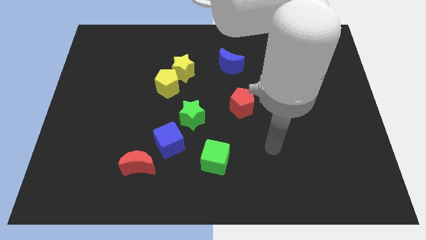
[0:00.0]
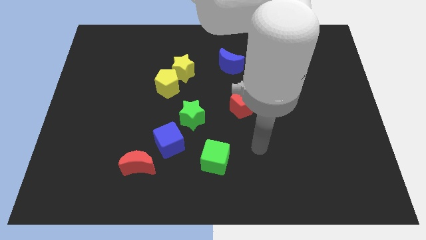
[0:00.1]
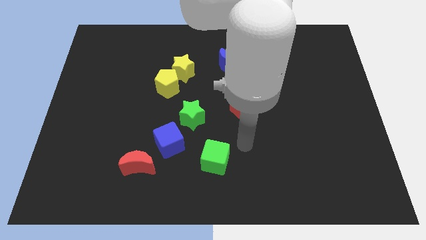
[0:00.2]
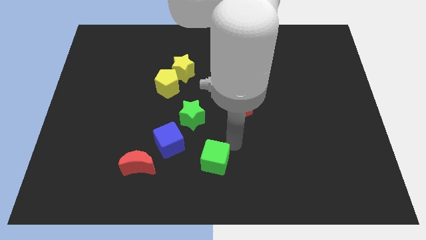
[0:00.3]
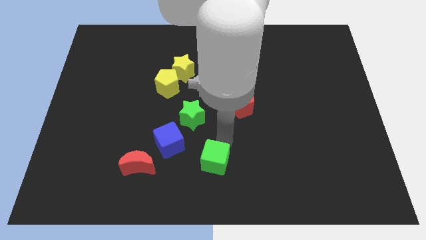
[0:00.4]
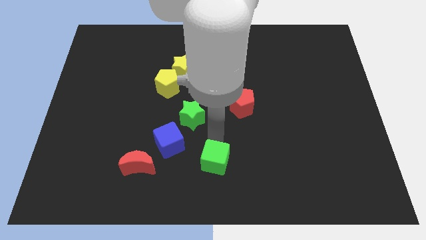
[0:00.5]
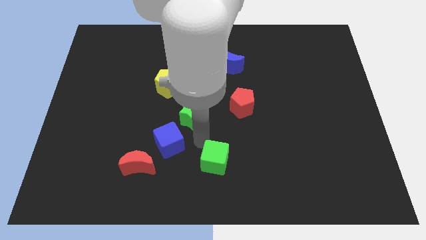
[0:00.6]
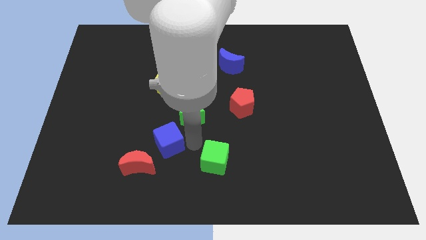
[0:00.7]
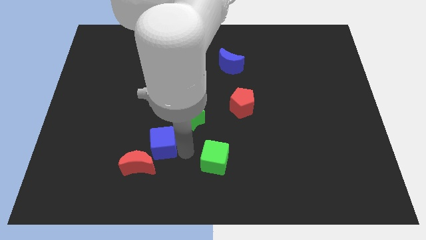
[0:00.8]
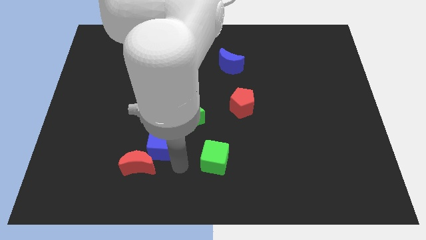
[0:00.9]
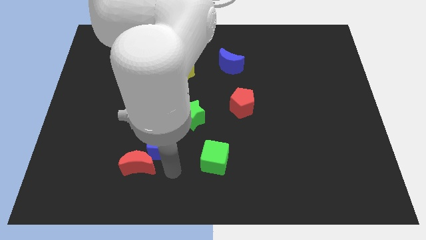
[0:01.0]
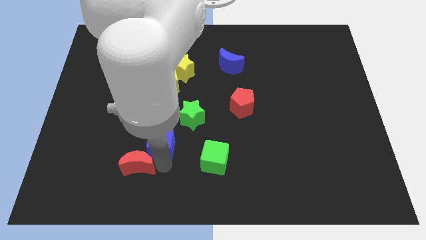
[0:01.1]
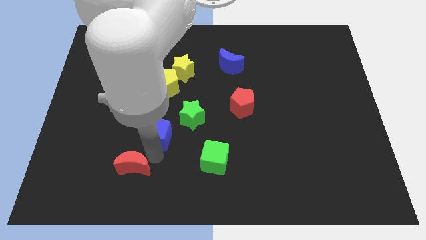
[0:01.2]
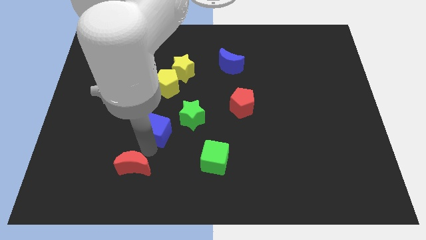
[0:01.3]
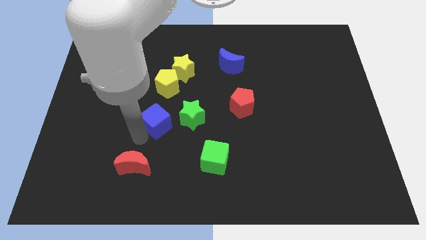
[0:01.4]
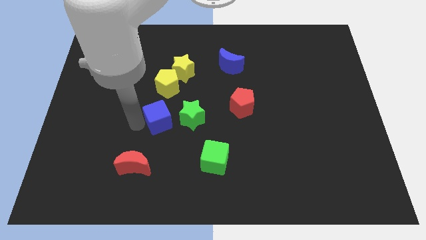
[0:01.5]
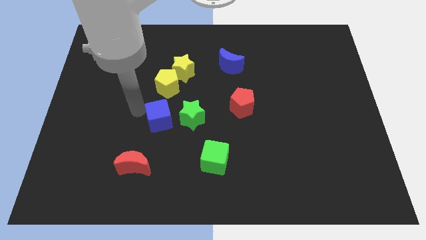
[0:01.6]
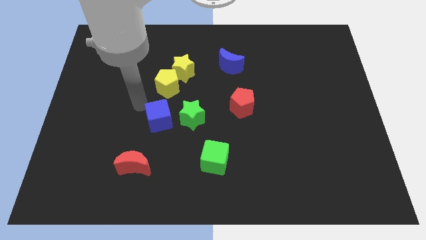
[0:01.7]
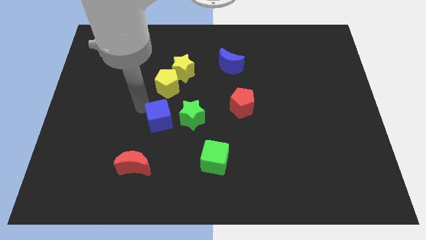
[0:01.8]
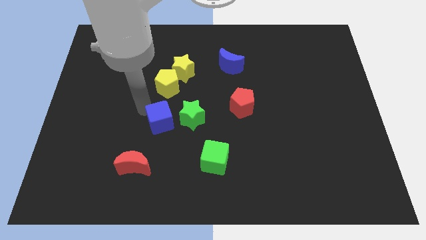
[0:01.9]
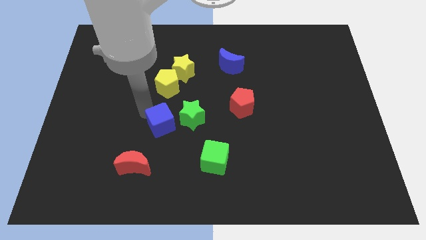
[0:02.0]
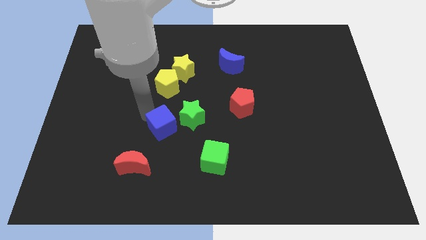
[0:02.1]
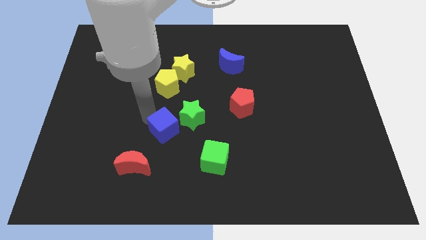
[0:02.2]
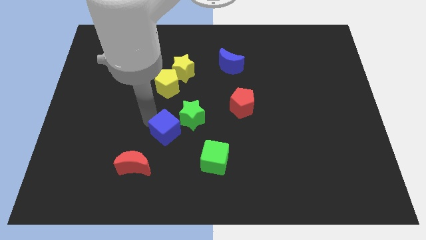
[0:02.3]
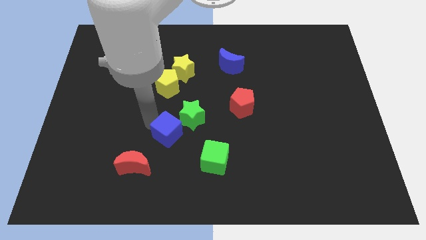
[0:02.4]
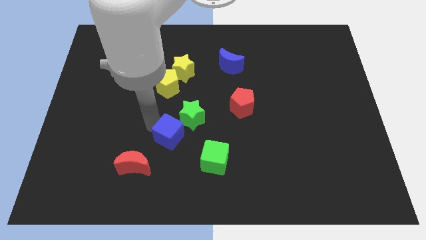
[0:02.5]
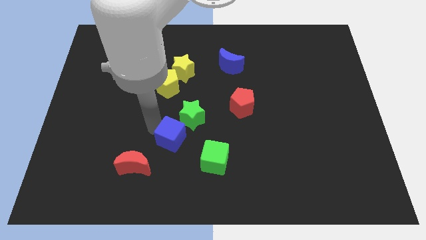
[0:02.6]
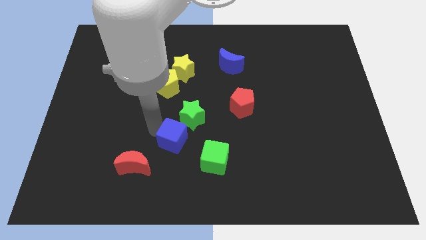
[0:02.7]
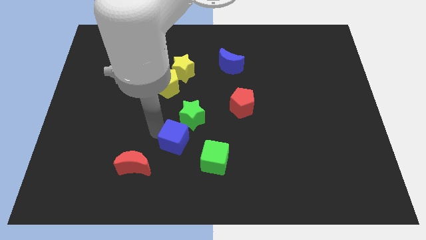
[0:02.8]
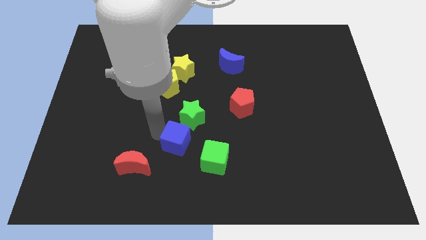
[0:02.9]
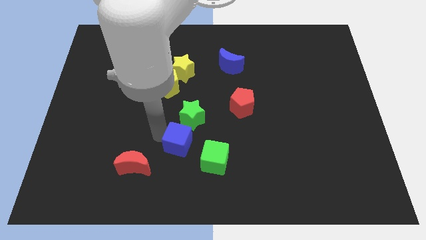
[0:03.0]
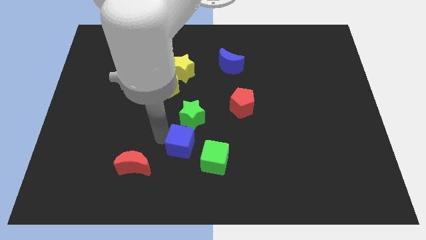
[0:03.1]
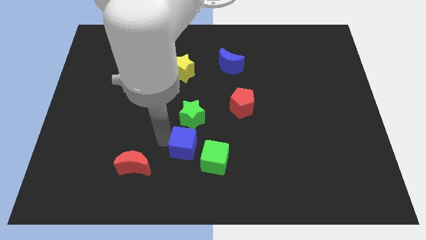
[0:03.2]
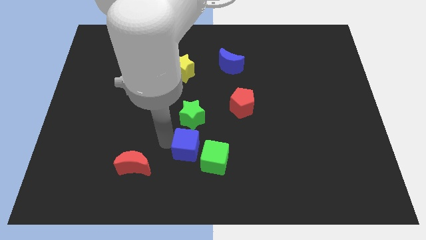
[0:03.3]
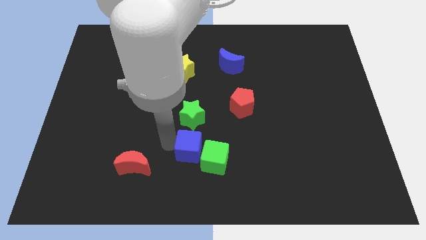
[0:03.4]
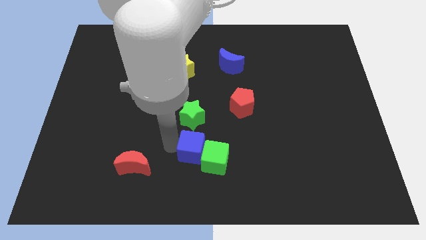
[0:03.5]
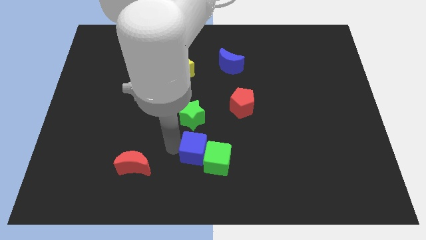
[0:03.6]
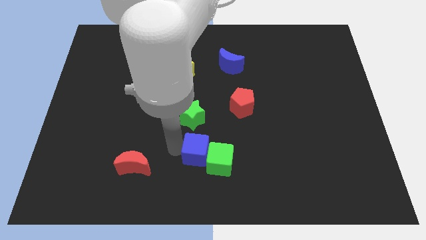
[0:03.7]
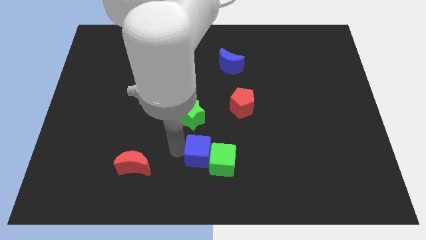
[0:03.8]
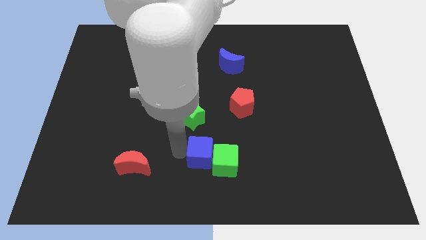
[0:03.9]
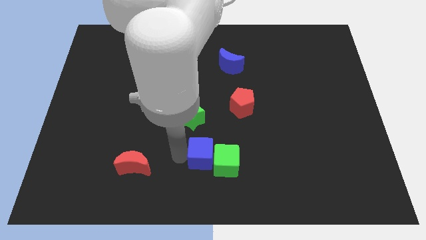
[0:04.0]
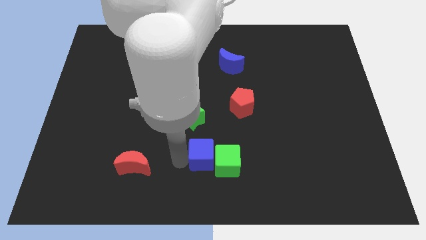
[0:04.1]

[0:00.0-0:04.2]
push the blue cube right somewhat

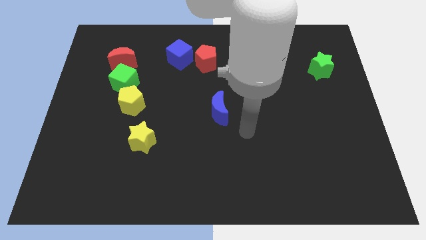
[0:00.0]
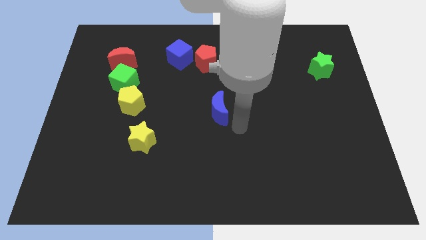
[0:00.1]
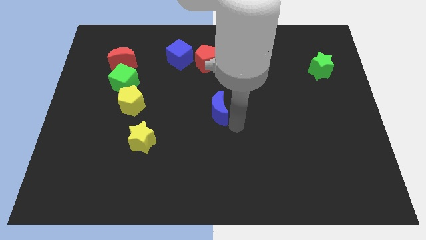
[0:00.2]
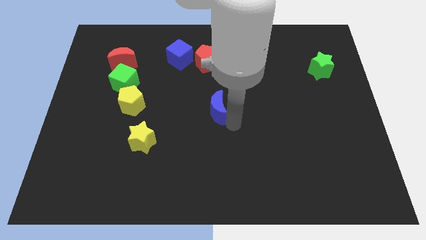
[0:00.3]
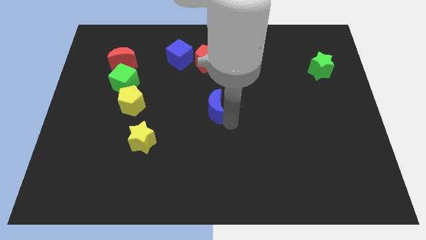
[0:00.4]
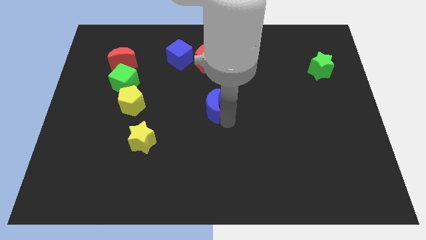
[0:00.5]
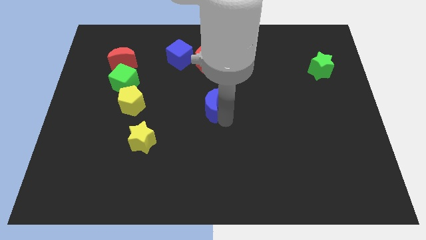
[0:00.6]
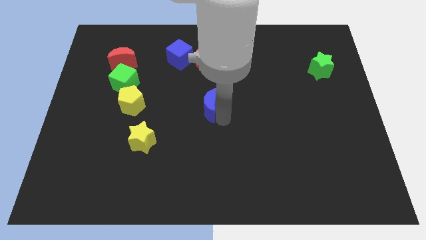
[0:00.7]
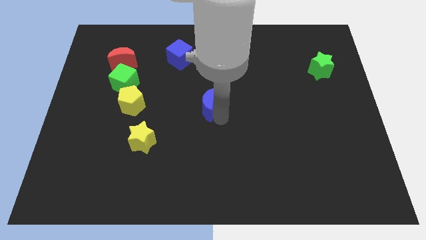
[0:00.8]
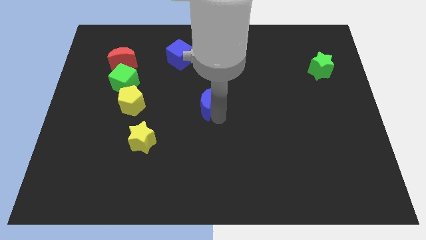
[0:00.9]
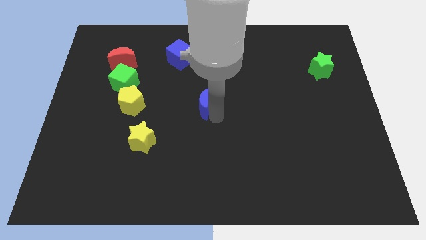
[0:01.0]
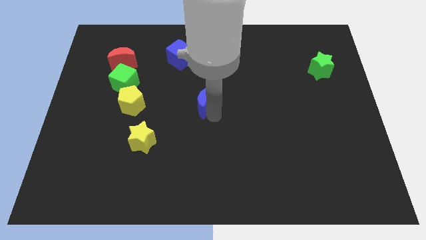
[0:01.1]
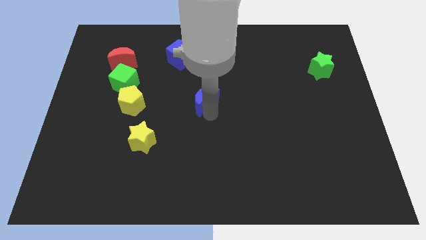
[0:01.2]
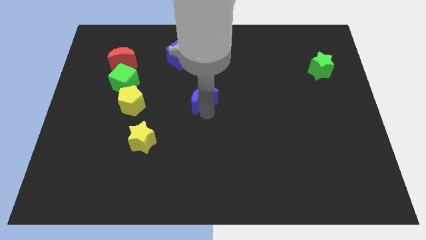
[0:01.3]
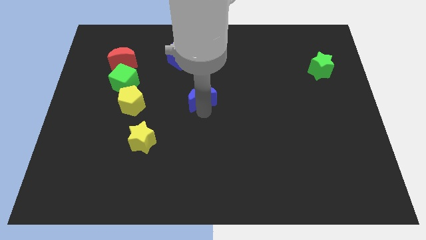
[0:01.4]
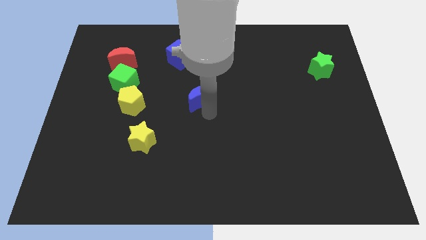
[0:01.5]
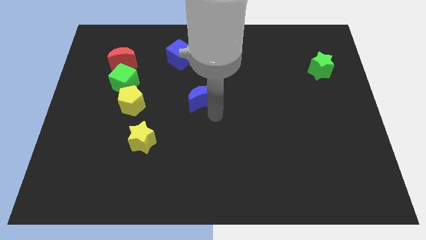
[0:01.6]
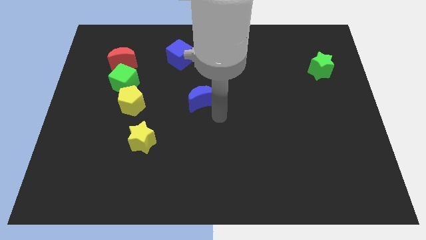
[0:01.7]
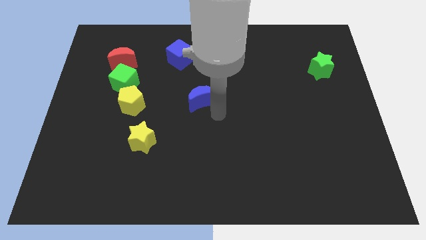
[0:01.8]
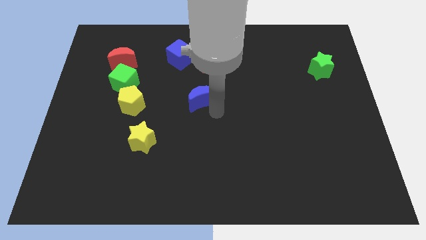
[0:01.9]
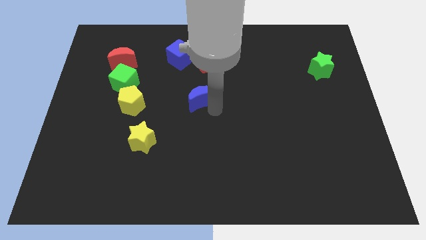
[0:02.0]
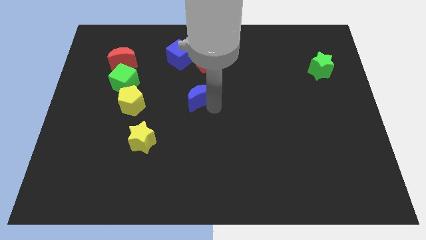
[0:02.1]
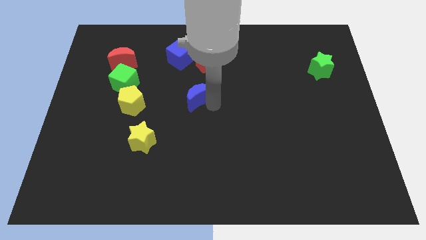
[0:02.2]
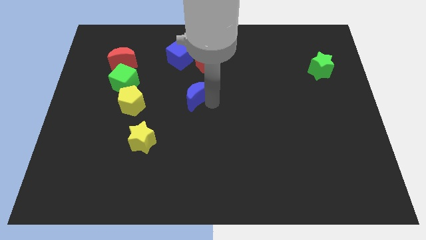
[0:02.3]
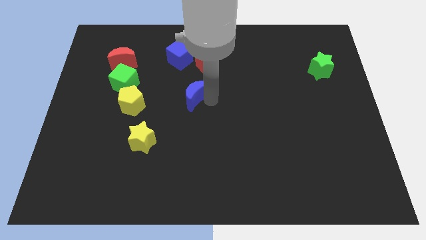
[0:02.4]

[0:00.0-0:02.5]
move the blue moon diagonally up and to the left slightly

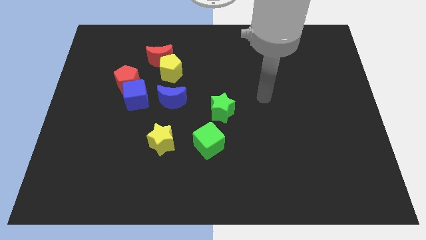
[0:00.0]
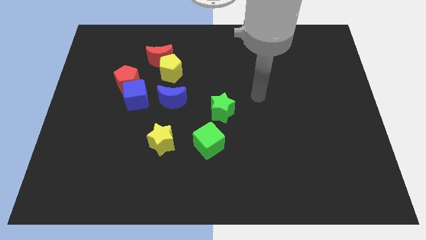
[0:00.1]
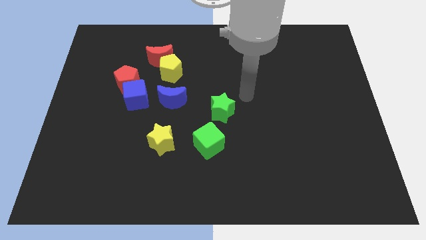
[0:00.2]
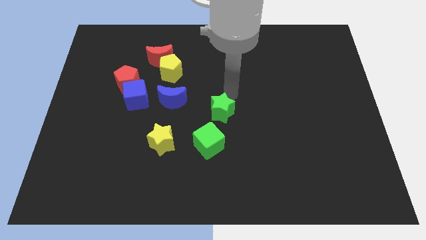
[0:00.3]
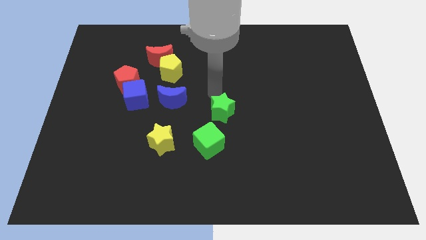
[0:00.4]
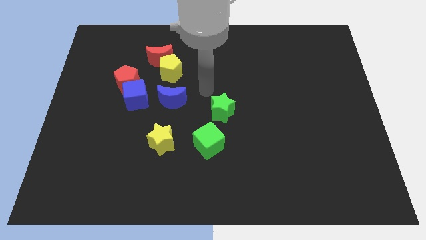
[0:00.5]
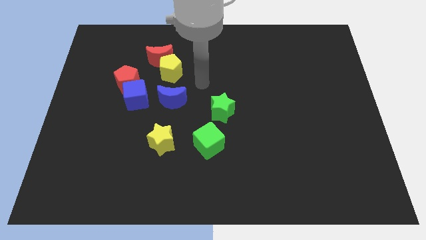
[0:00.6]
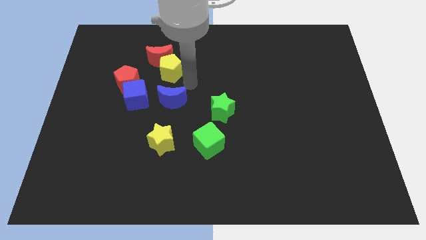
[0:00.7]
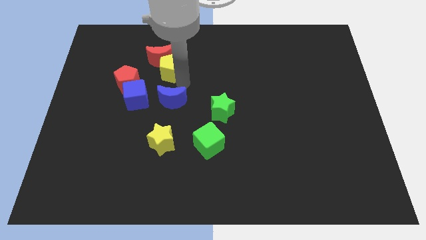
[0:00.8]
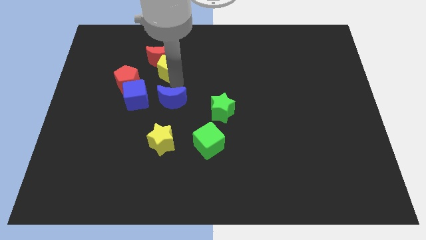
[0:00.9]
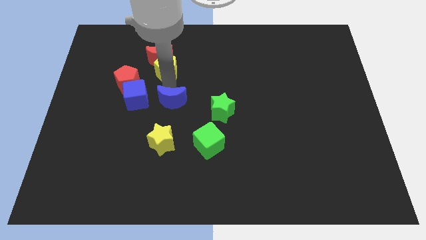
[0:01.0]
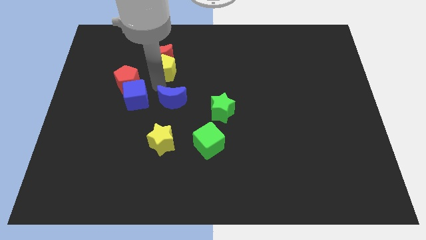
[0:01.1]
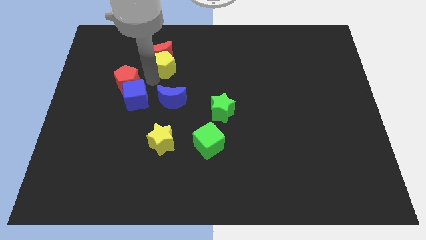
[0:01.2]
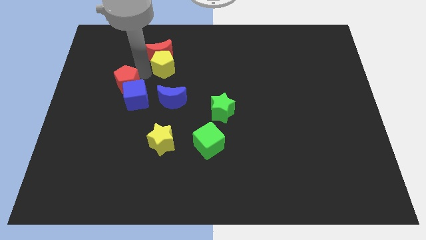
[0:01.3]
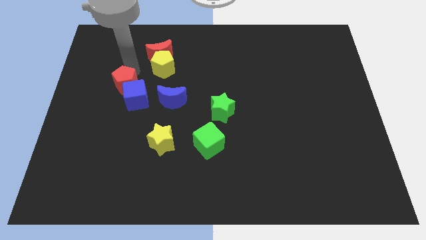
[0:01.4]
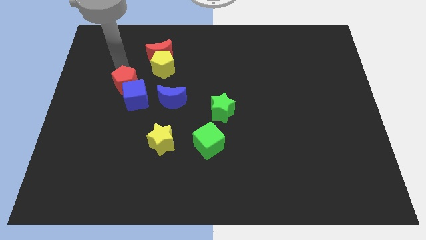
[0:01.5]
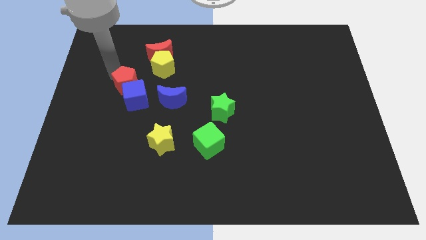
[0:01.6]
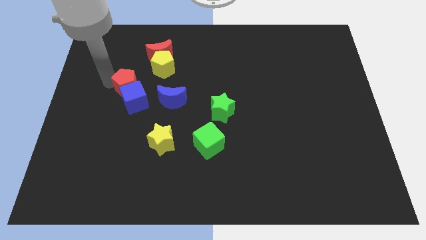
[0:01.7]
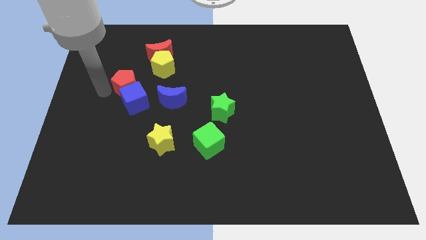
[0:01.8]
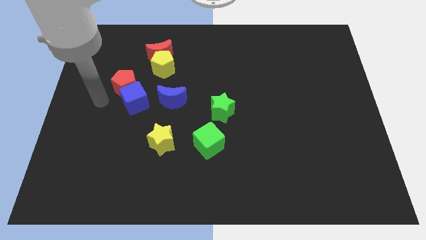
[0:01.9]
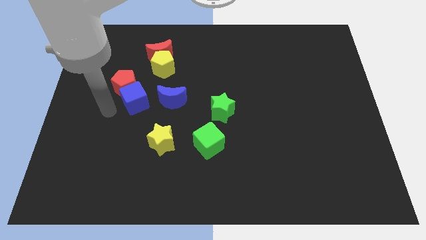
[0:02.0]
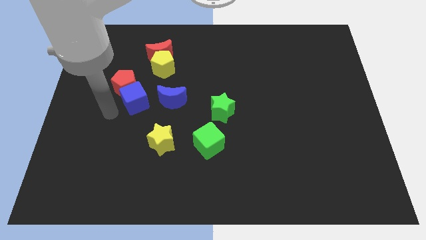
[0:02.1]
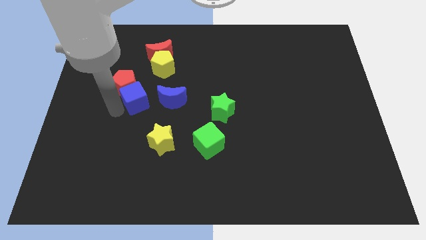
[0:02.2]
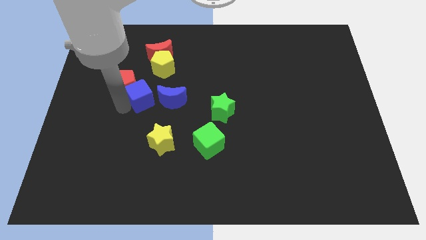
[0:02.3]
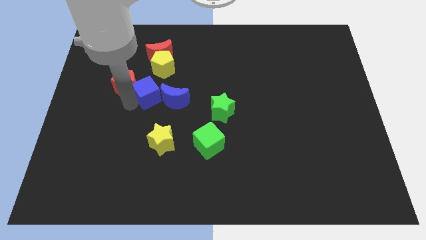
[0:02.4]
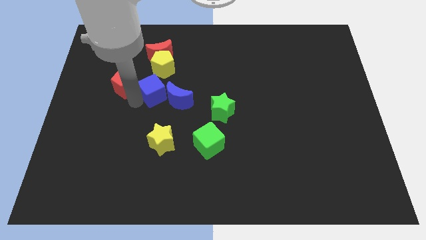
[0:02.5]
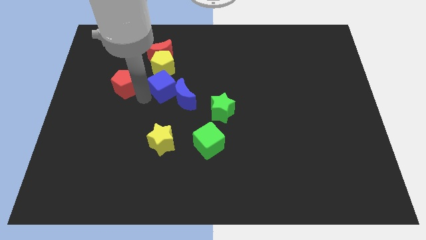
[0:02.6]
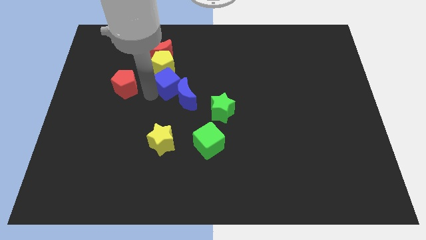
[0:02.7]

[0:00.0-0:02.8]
slide the blue cube slightly diagonally upwards and to the right
